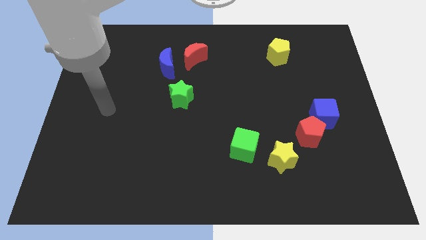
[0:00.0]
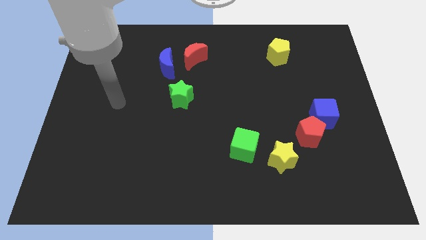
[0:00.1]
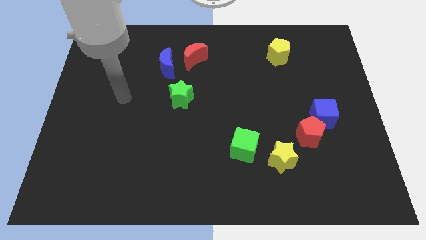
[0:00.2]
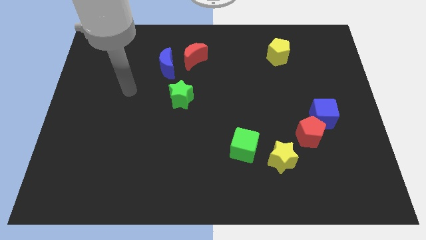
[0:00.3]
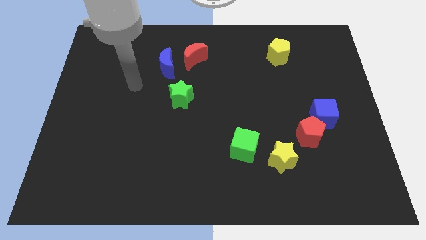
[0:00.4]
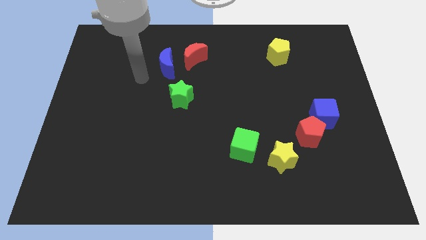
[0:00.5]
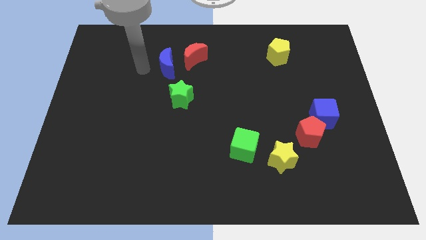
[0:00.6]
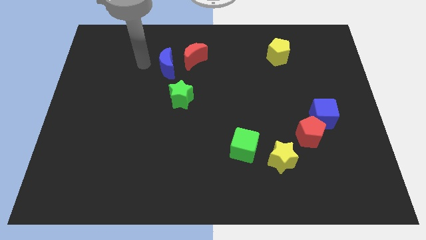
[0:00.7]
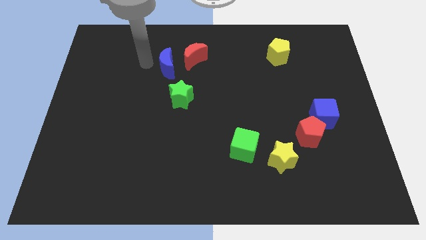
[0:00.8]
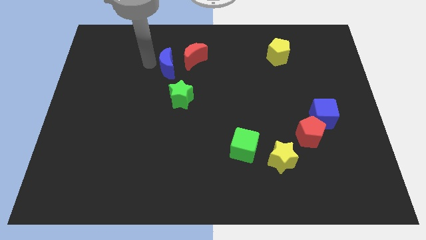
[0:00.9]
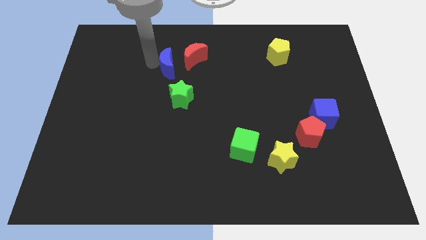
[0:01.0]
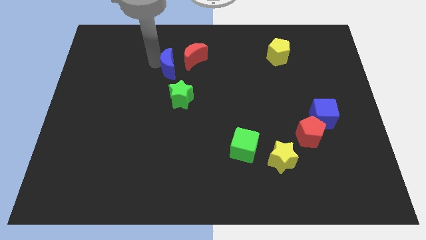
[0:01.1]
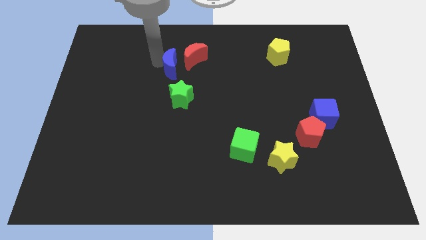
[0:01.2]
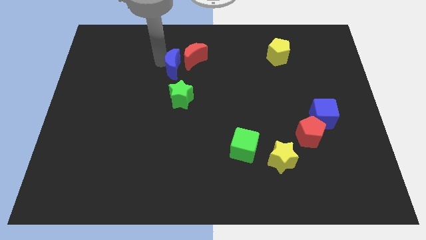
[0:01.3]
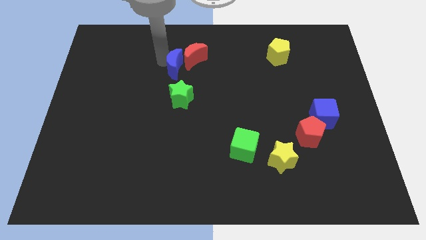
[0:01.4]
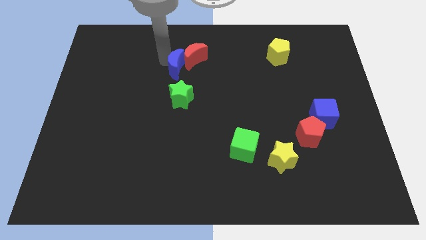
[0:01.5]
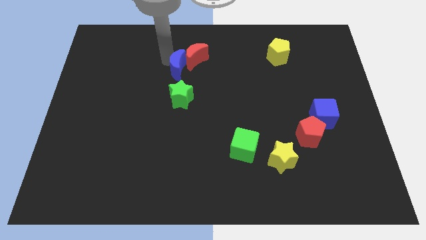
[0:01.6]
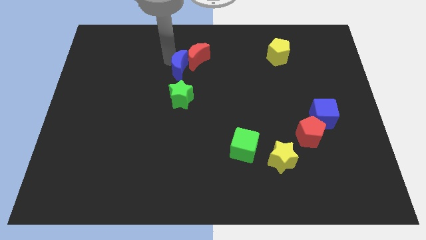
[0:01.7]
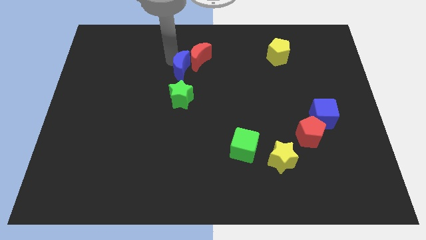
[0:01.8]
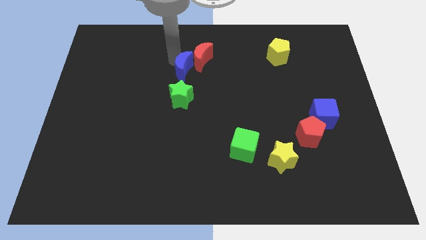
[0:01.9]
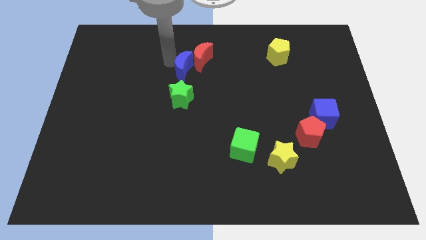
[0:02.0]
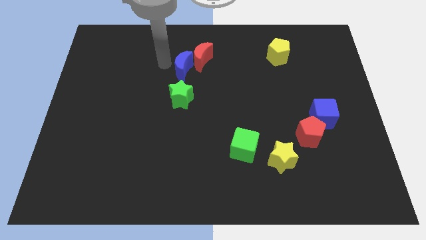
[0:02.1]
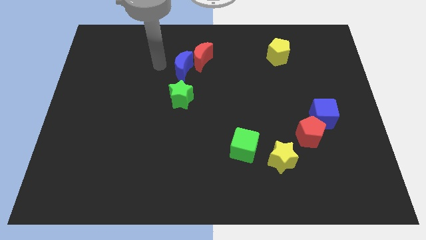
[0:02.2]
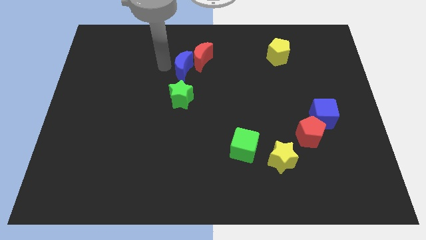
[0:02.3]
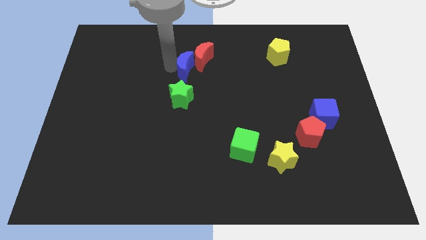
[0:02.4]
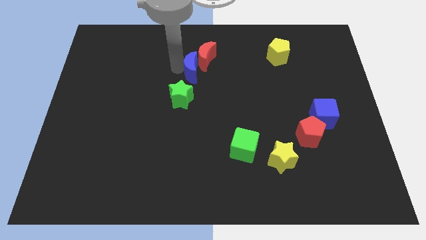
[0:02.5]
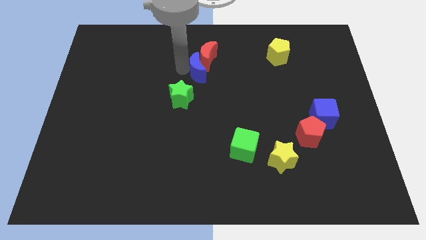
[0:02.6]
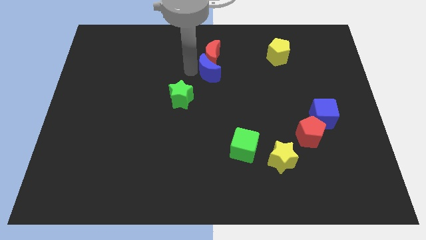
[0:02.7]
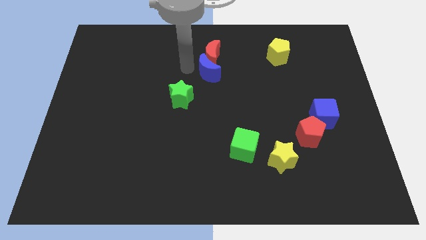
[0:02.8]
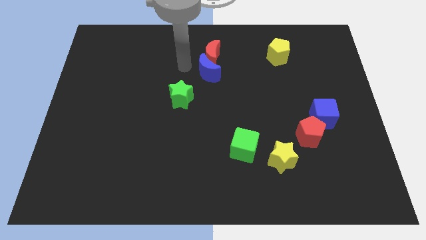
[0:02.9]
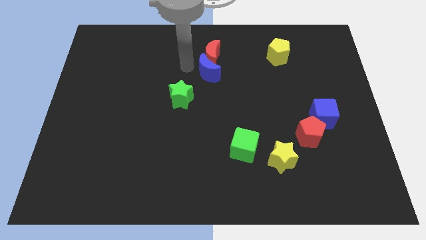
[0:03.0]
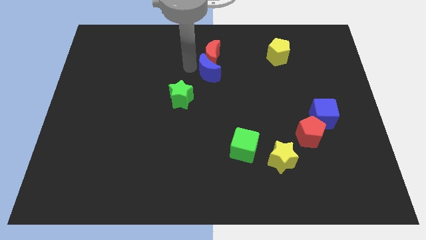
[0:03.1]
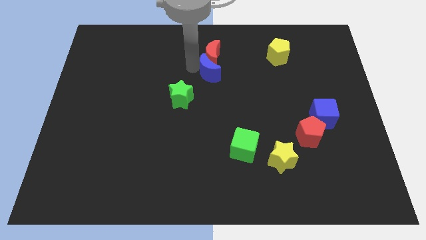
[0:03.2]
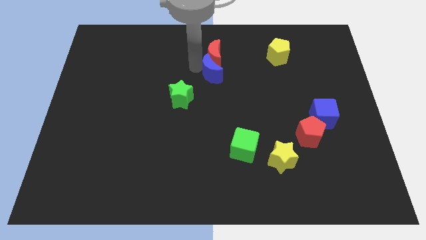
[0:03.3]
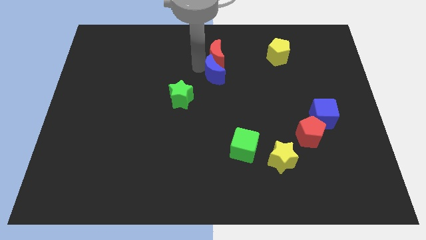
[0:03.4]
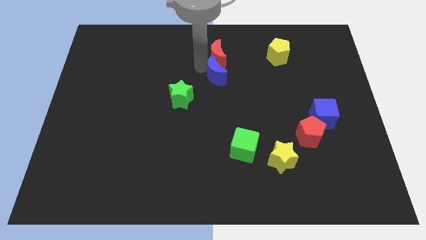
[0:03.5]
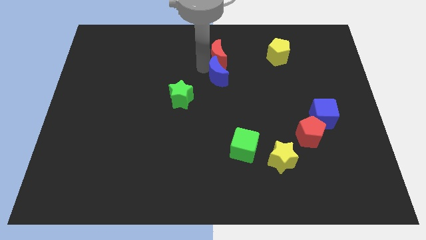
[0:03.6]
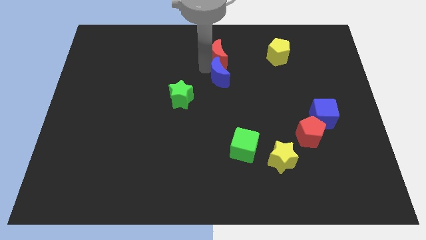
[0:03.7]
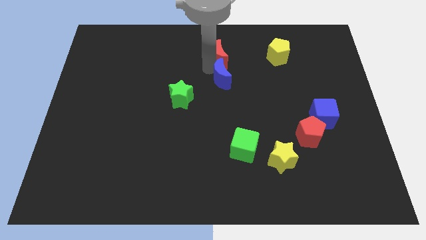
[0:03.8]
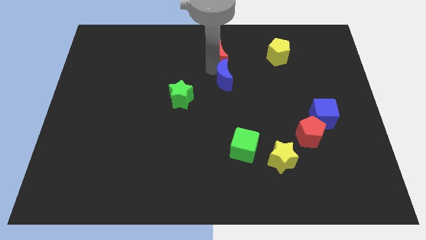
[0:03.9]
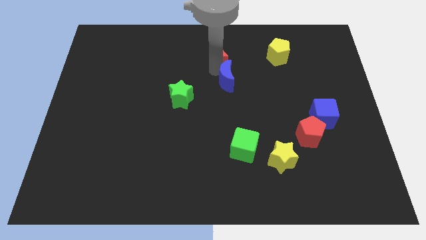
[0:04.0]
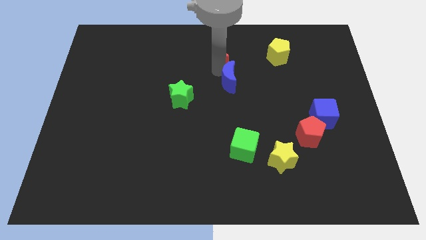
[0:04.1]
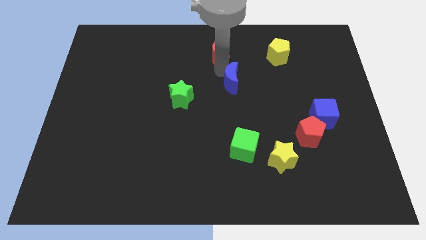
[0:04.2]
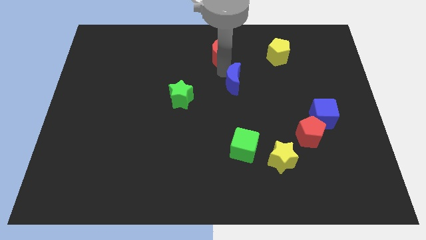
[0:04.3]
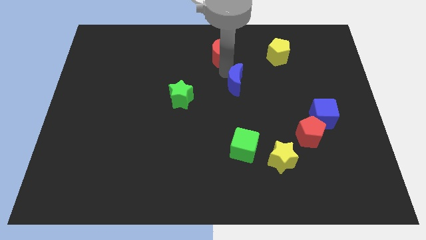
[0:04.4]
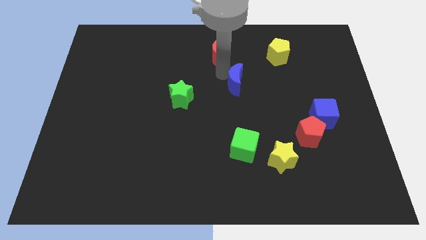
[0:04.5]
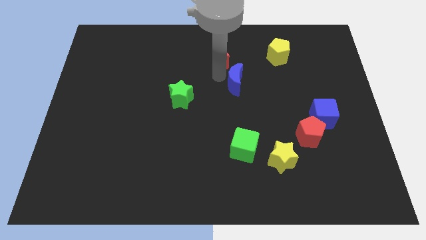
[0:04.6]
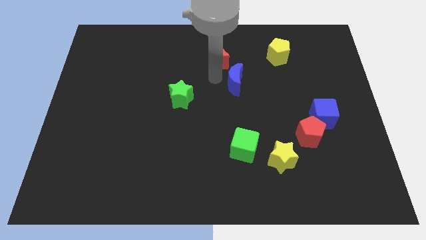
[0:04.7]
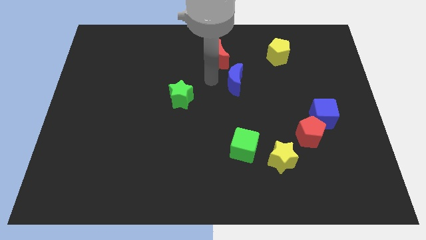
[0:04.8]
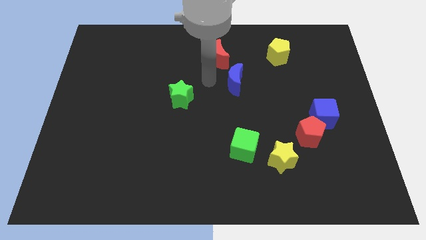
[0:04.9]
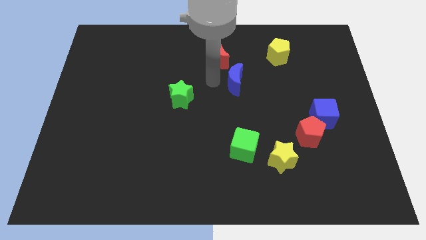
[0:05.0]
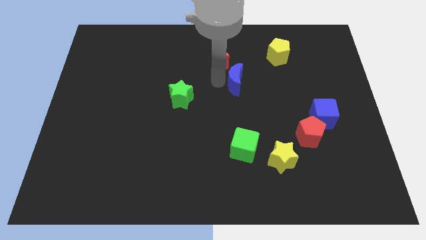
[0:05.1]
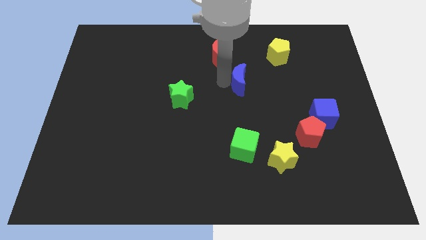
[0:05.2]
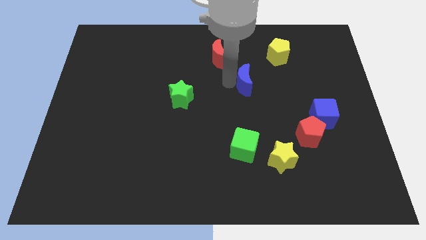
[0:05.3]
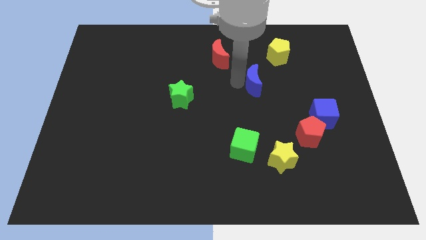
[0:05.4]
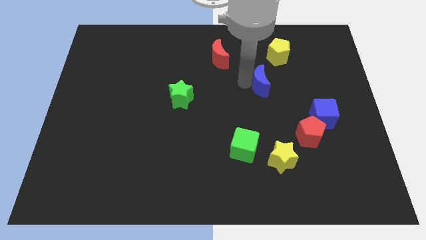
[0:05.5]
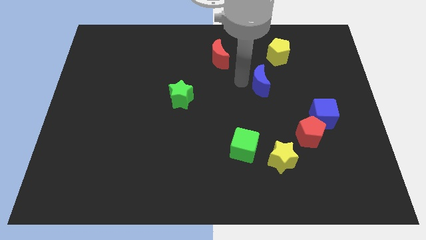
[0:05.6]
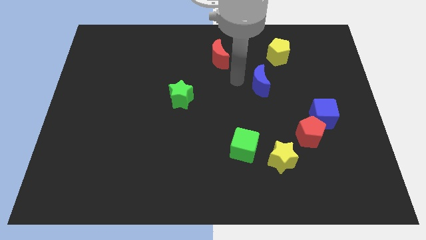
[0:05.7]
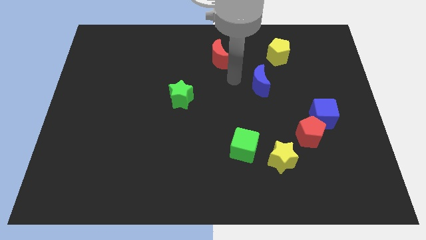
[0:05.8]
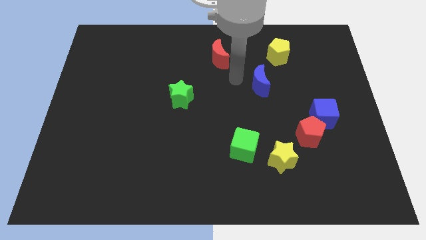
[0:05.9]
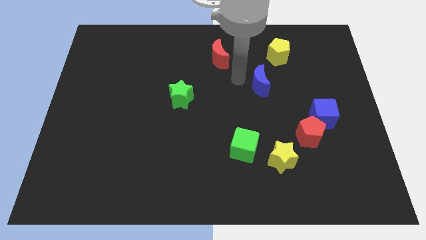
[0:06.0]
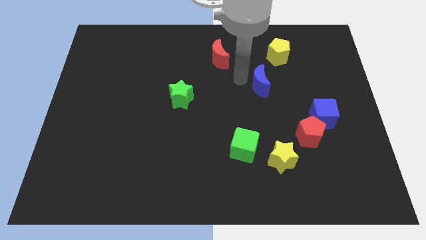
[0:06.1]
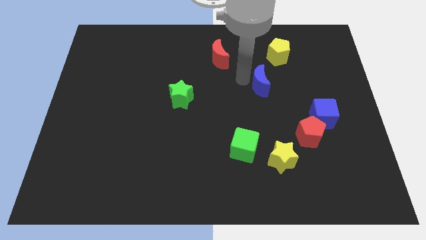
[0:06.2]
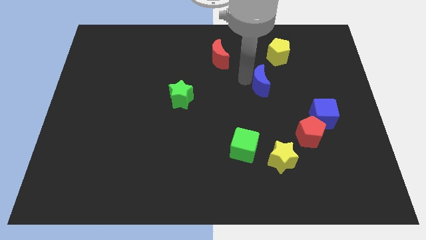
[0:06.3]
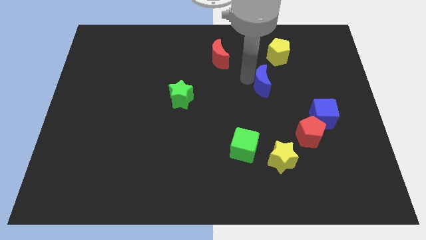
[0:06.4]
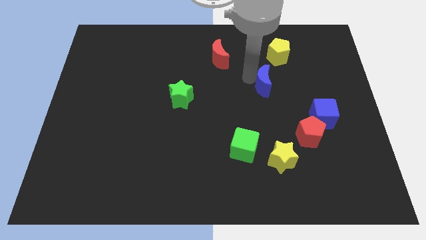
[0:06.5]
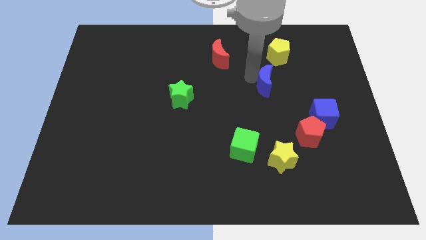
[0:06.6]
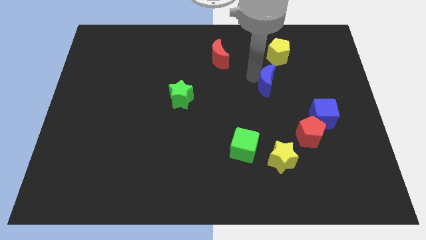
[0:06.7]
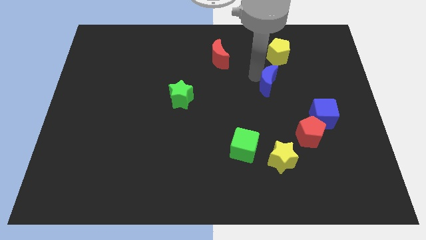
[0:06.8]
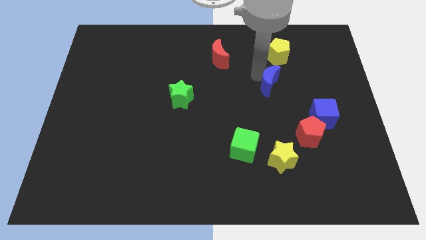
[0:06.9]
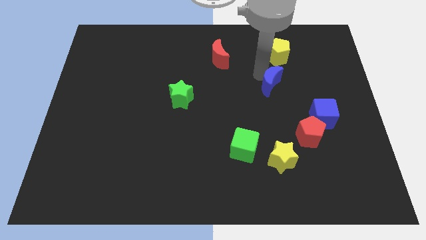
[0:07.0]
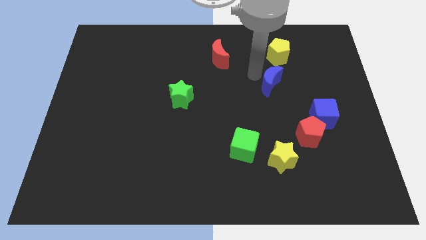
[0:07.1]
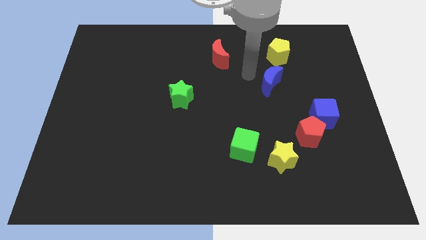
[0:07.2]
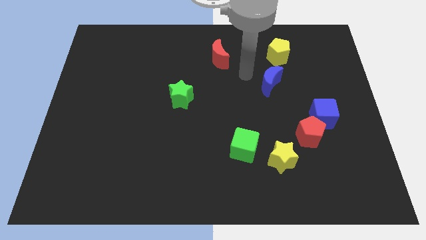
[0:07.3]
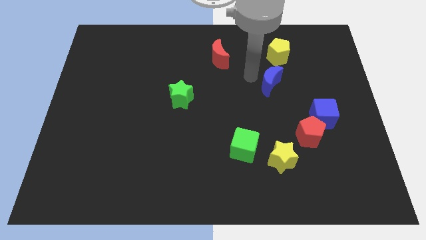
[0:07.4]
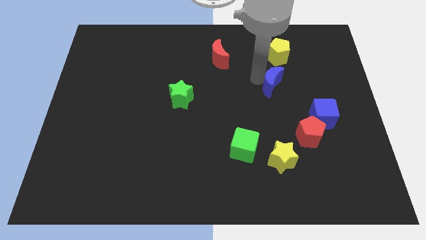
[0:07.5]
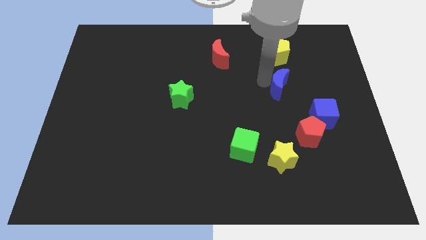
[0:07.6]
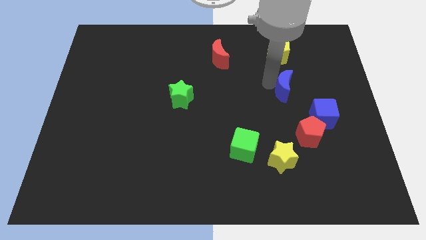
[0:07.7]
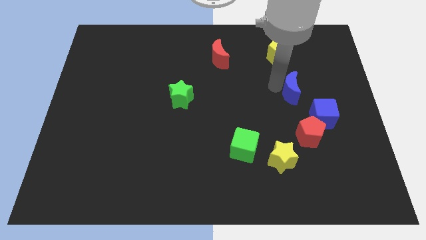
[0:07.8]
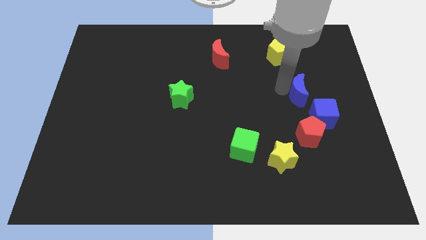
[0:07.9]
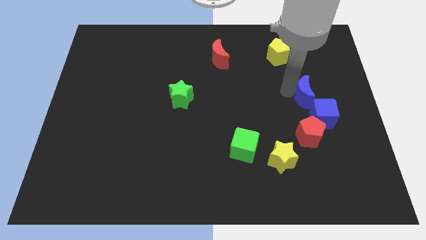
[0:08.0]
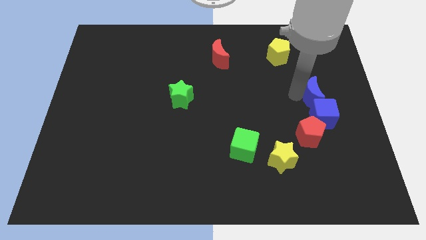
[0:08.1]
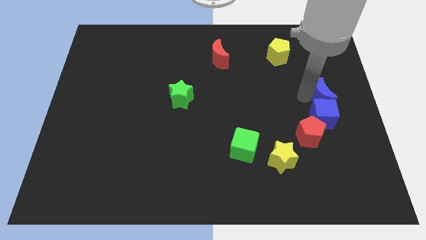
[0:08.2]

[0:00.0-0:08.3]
slide the blue moon to the right side of the board
